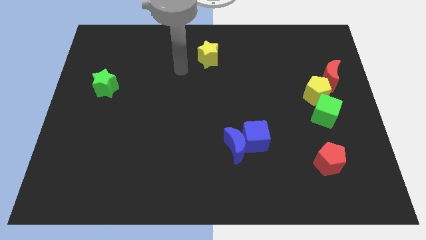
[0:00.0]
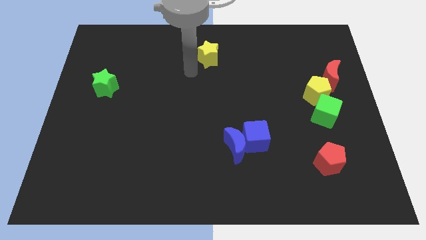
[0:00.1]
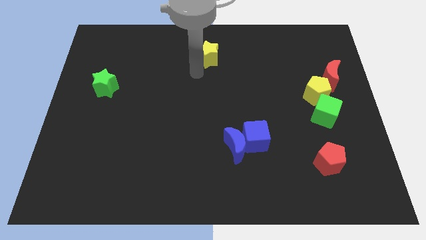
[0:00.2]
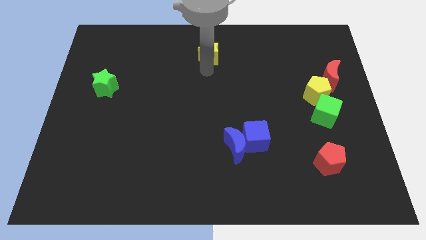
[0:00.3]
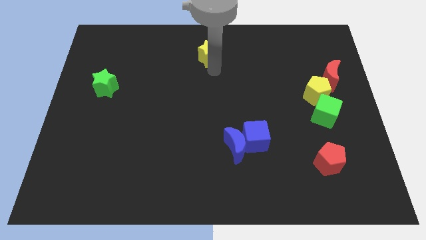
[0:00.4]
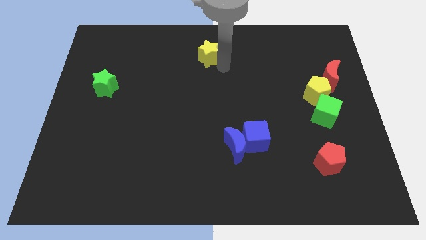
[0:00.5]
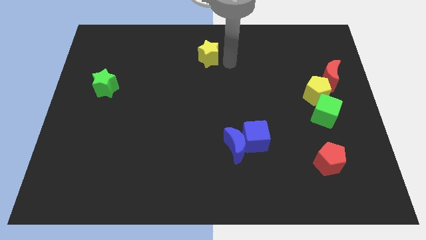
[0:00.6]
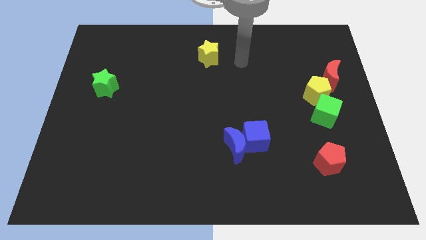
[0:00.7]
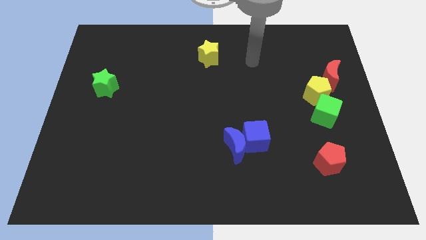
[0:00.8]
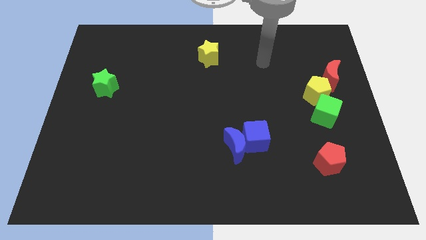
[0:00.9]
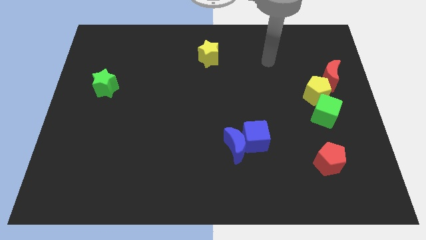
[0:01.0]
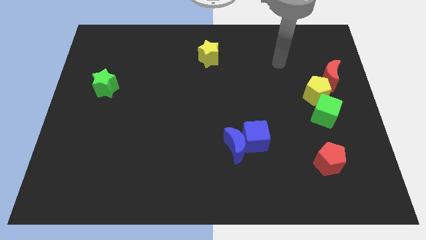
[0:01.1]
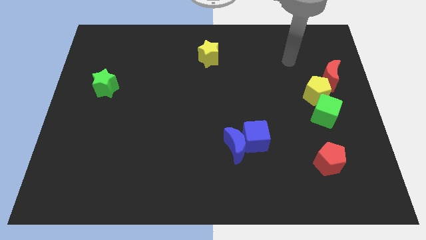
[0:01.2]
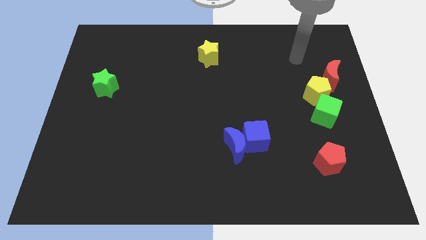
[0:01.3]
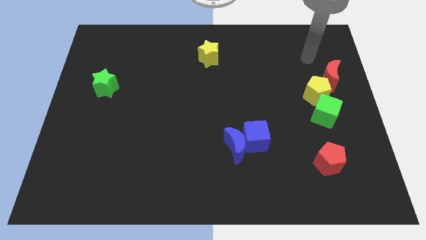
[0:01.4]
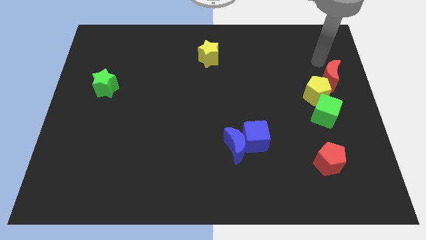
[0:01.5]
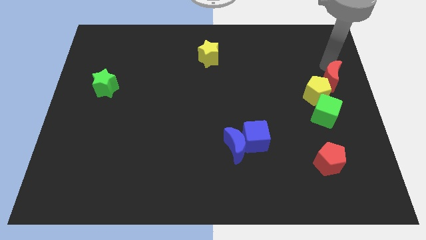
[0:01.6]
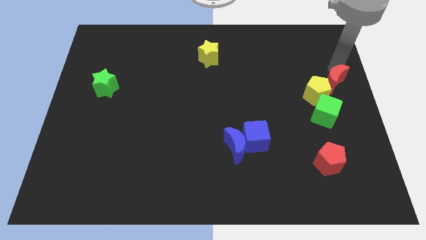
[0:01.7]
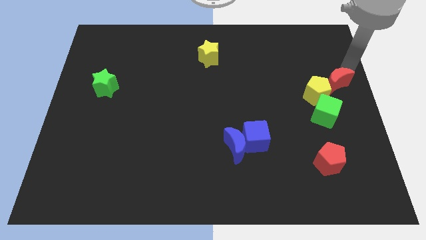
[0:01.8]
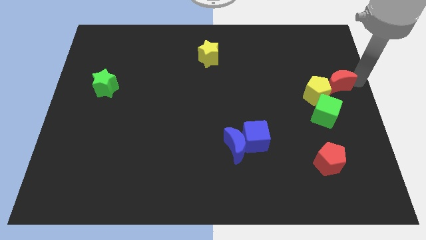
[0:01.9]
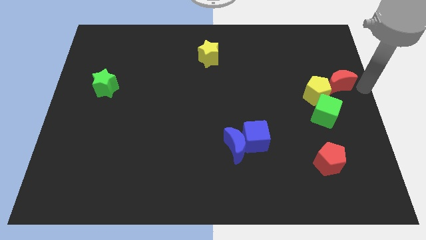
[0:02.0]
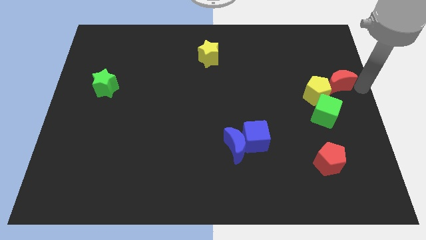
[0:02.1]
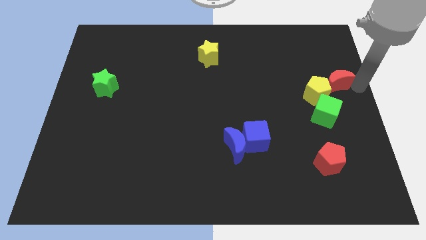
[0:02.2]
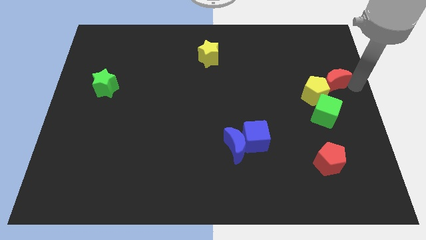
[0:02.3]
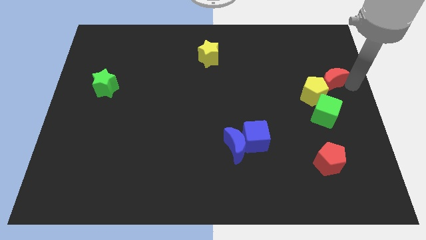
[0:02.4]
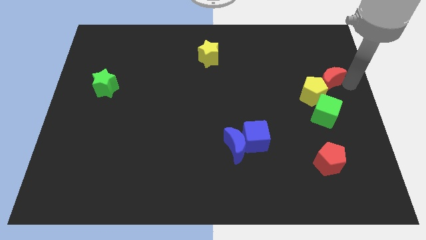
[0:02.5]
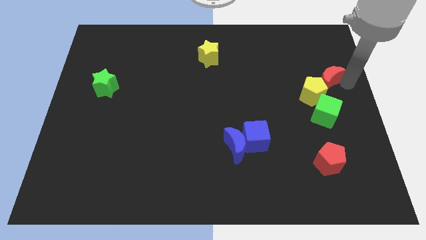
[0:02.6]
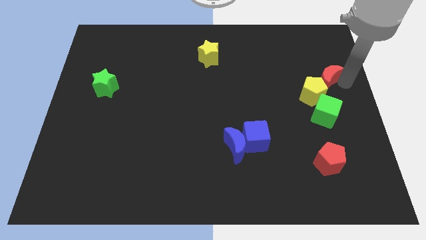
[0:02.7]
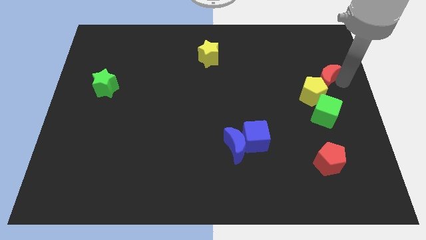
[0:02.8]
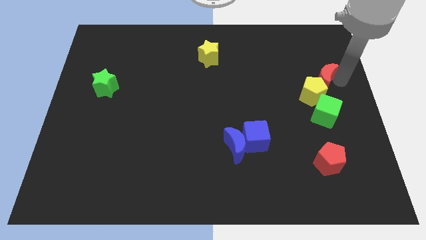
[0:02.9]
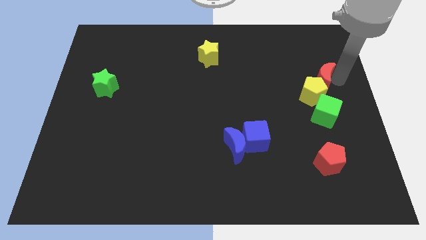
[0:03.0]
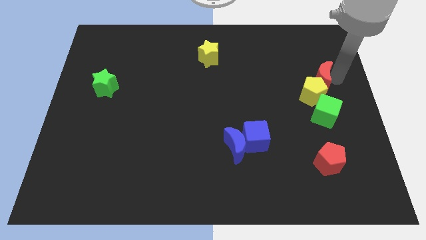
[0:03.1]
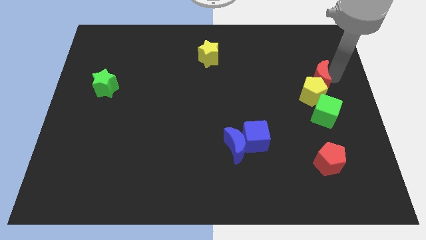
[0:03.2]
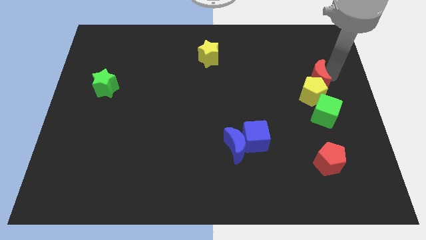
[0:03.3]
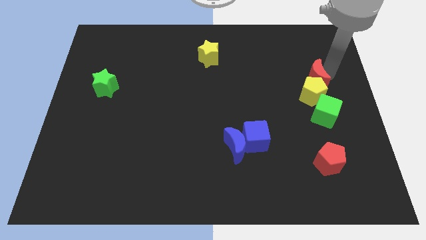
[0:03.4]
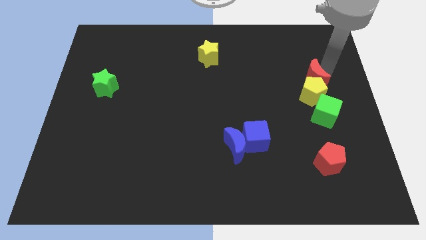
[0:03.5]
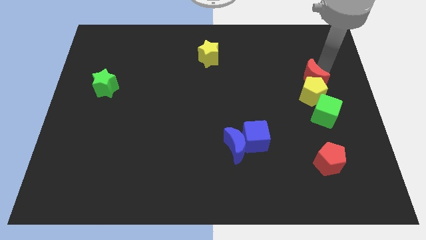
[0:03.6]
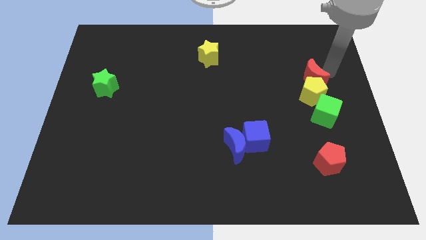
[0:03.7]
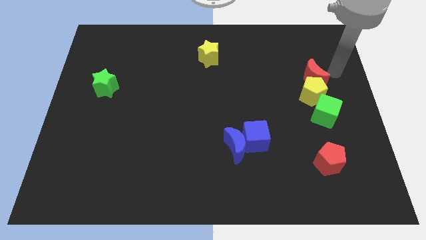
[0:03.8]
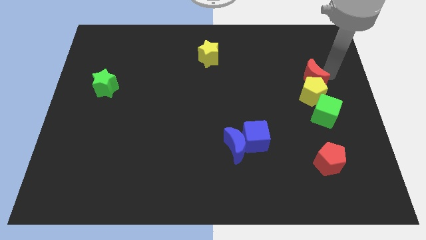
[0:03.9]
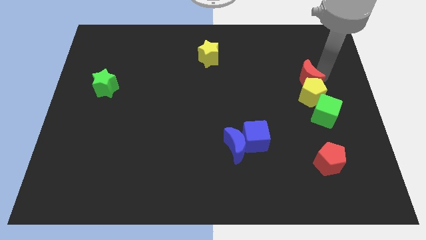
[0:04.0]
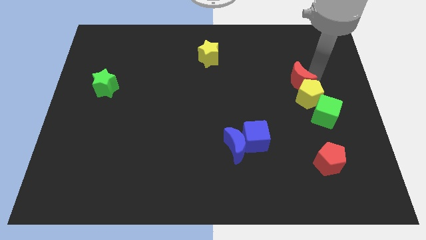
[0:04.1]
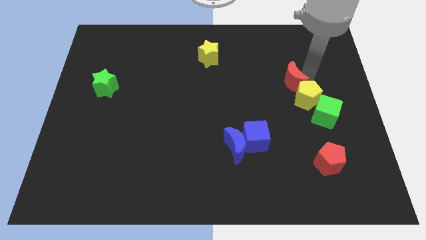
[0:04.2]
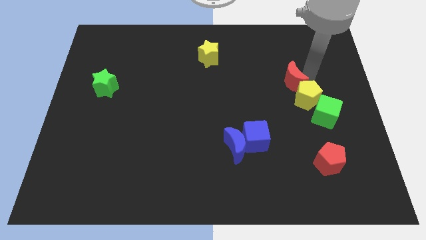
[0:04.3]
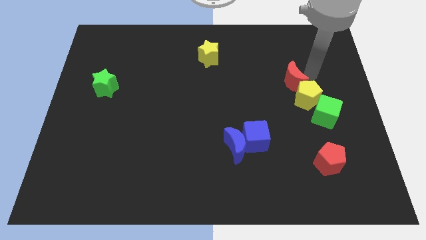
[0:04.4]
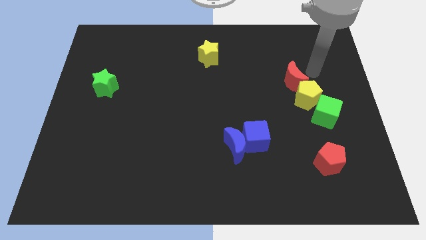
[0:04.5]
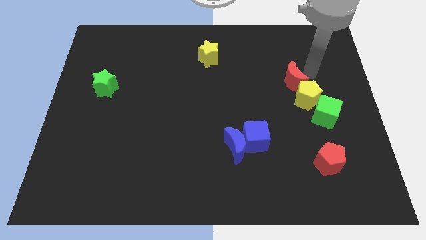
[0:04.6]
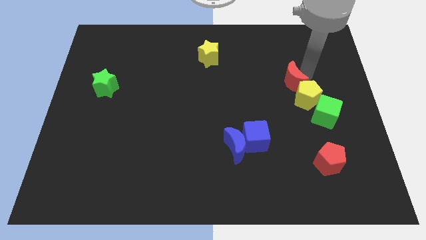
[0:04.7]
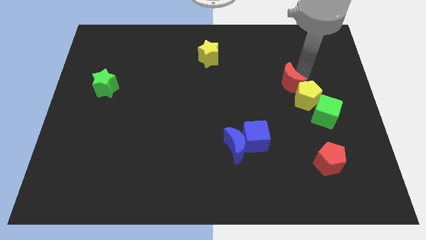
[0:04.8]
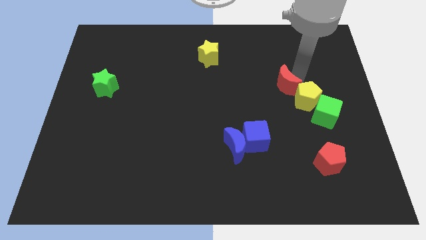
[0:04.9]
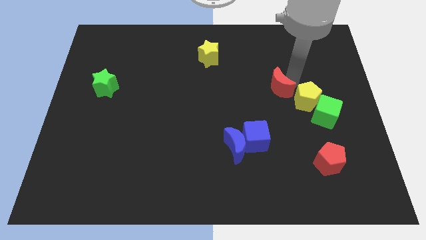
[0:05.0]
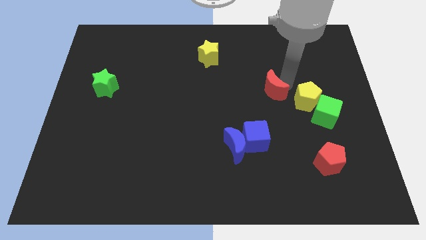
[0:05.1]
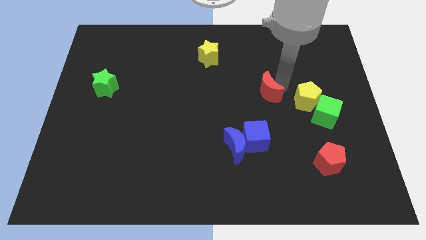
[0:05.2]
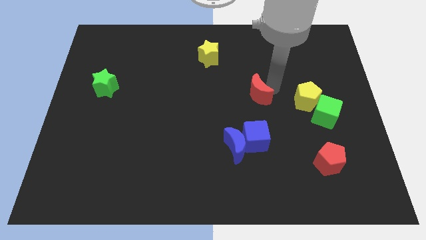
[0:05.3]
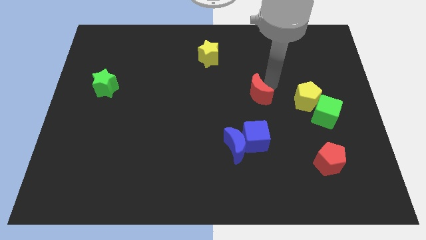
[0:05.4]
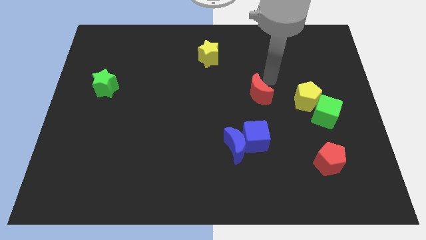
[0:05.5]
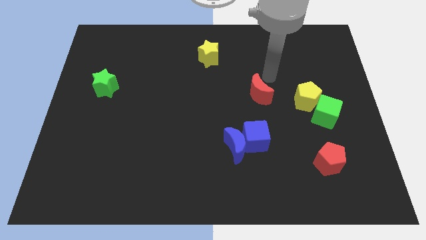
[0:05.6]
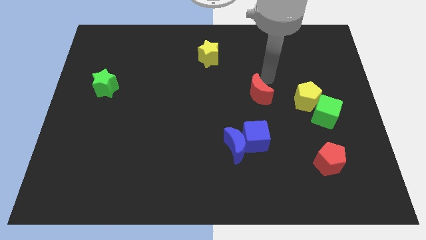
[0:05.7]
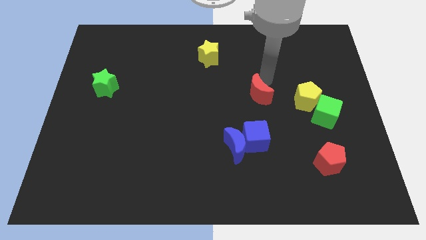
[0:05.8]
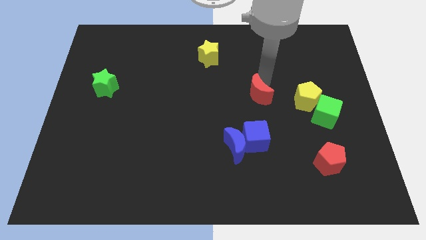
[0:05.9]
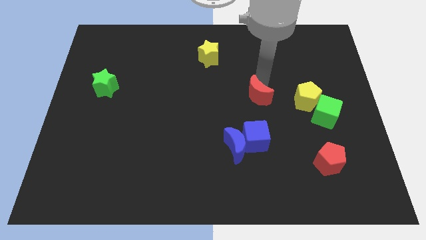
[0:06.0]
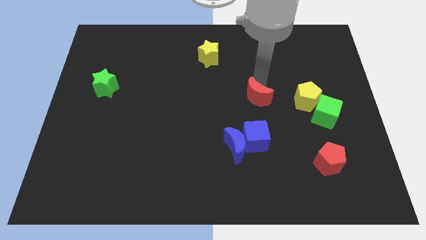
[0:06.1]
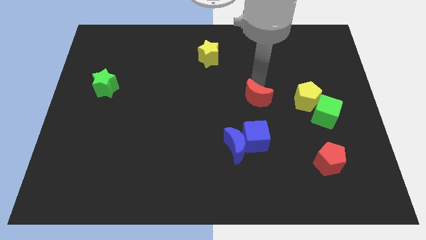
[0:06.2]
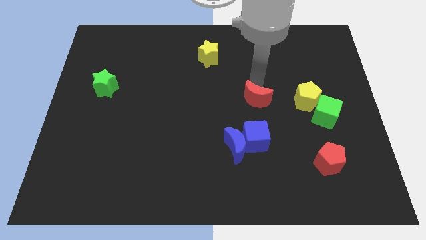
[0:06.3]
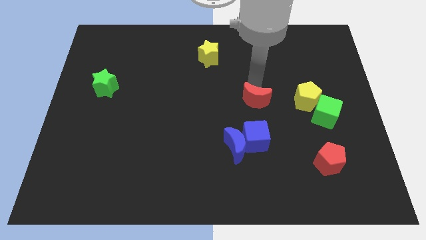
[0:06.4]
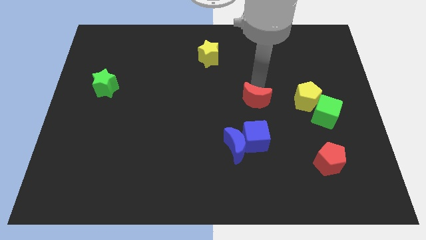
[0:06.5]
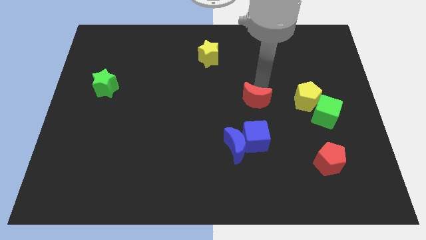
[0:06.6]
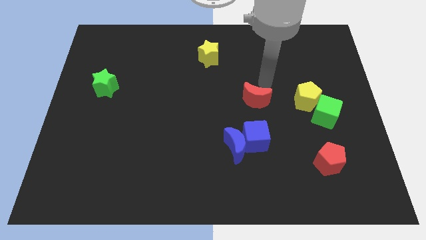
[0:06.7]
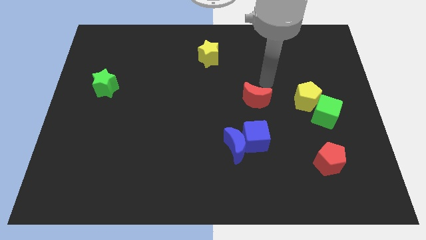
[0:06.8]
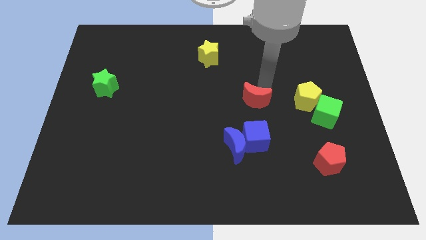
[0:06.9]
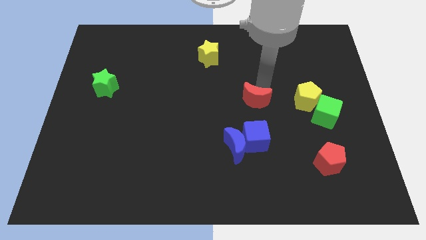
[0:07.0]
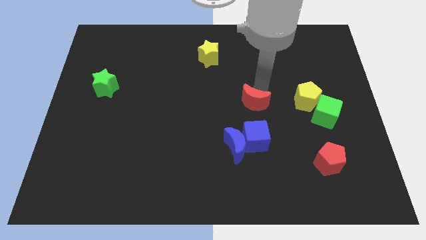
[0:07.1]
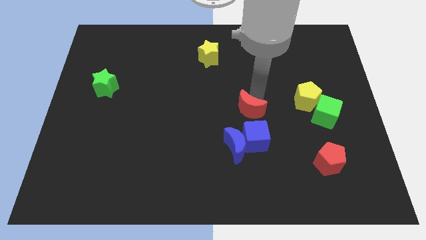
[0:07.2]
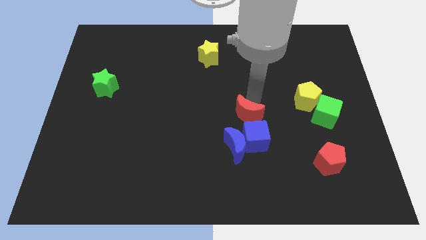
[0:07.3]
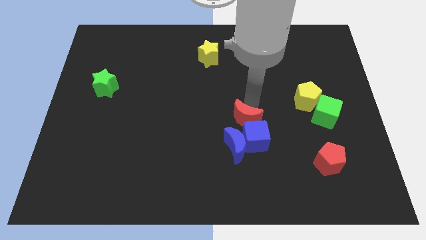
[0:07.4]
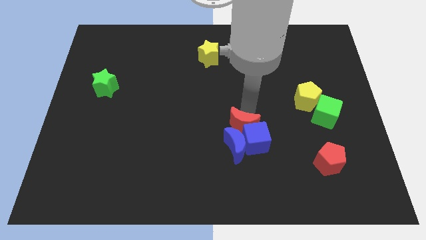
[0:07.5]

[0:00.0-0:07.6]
push the red moon next to the blue moon

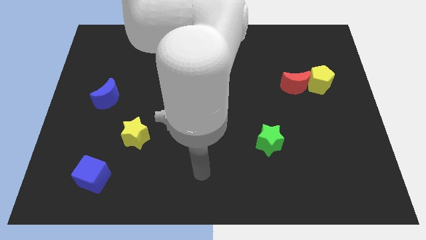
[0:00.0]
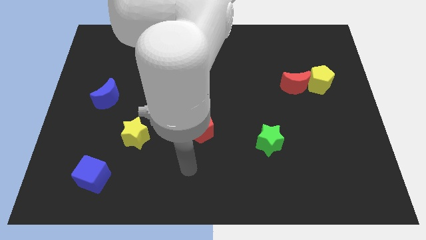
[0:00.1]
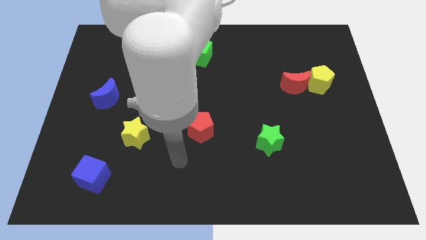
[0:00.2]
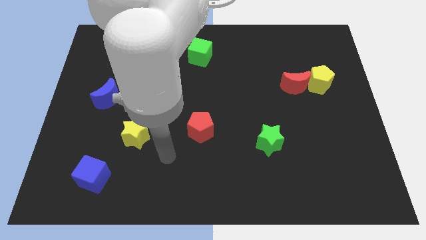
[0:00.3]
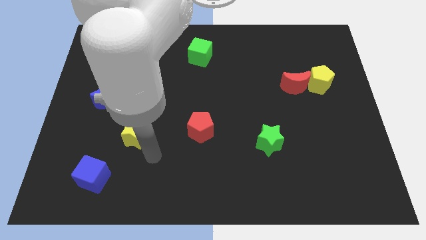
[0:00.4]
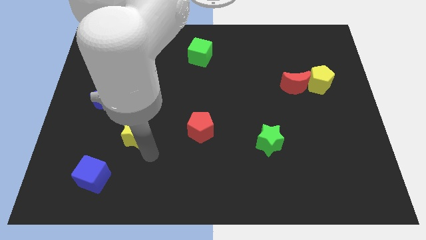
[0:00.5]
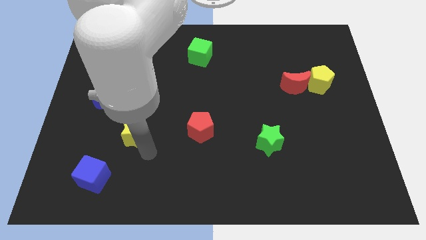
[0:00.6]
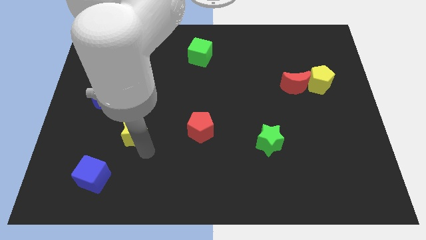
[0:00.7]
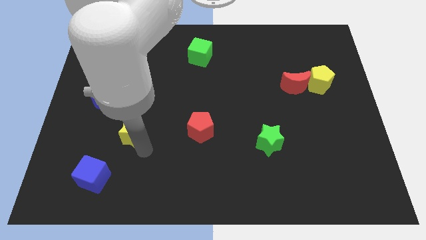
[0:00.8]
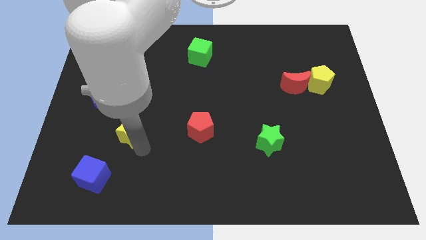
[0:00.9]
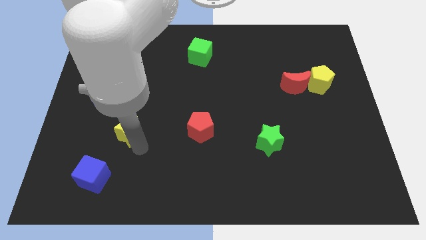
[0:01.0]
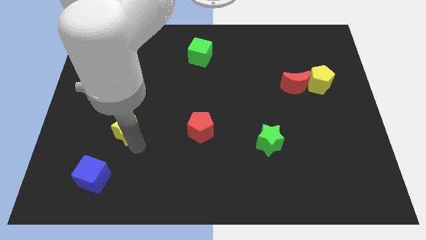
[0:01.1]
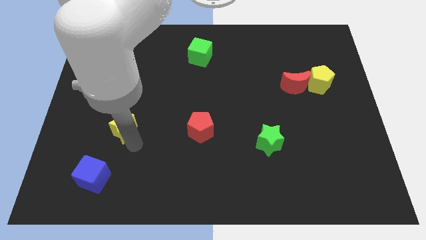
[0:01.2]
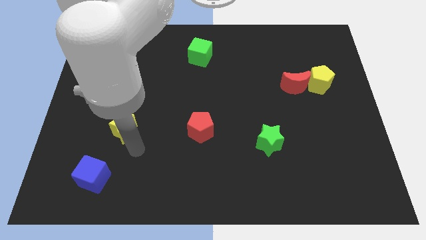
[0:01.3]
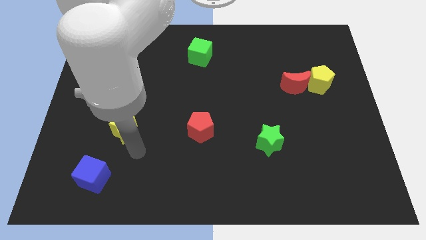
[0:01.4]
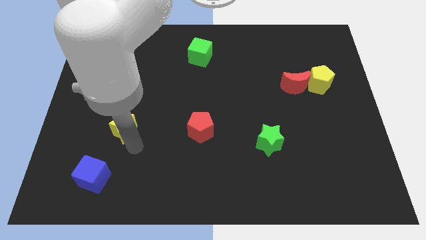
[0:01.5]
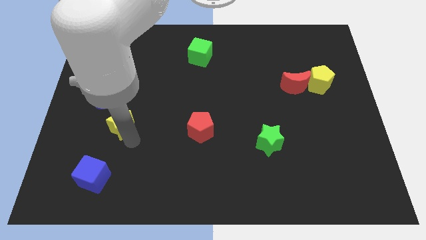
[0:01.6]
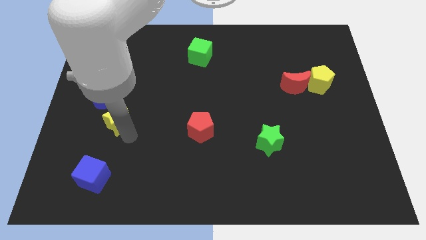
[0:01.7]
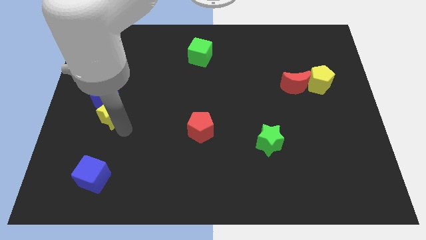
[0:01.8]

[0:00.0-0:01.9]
move the yellow star close to the blue moon
